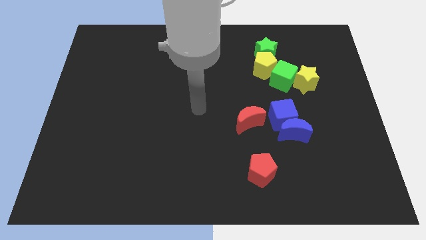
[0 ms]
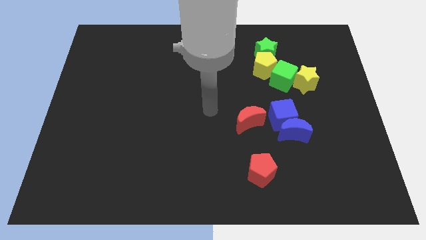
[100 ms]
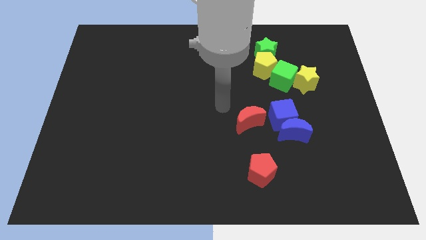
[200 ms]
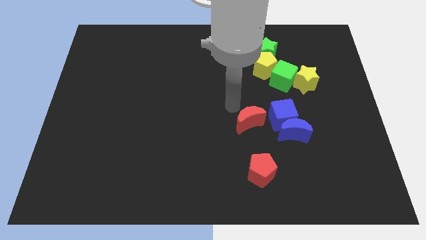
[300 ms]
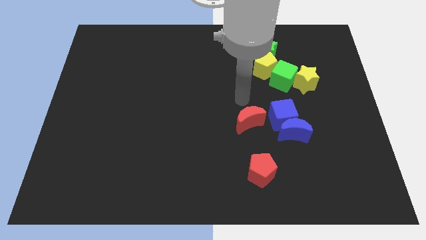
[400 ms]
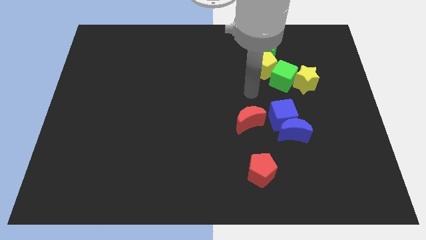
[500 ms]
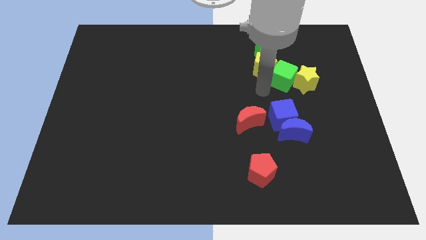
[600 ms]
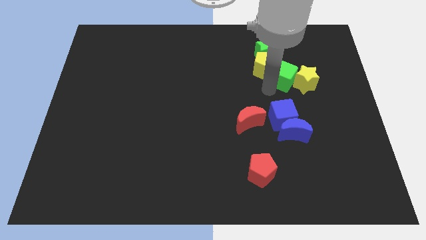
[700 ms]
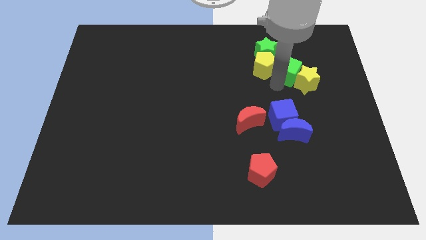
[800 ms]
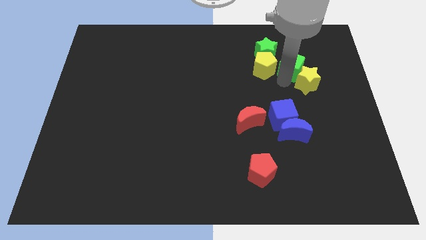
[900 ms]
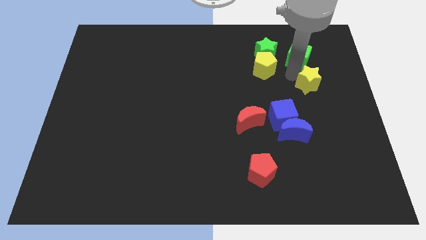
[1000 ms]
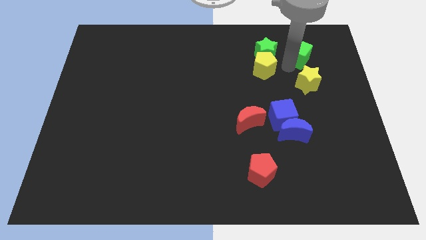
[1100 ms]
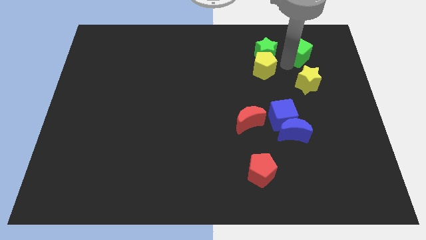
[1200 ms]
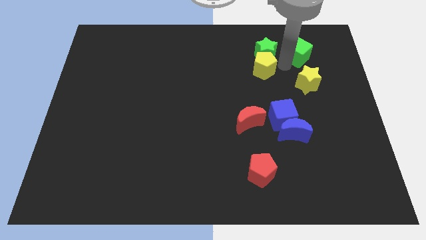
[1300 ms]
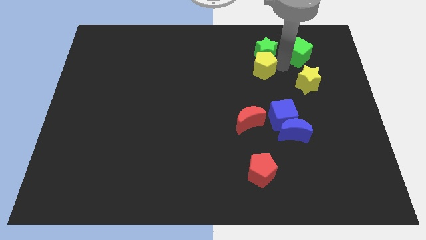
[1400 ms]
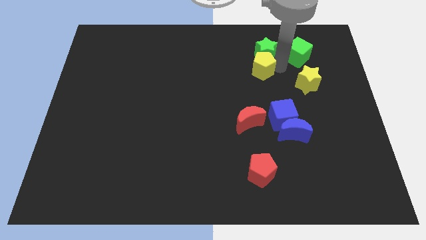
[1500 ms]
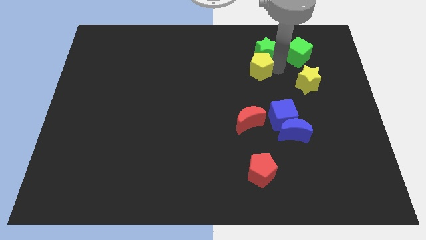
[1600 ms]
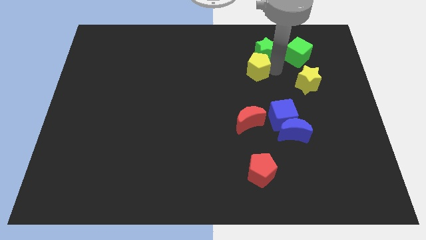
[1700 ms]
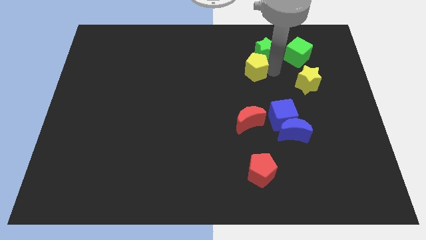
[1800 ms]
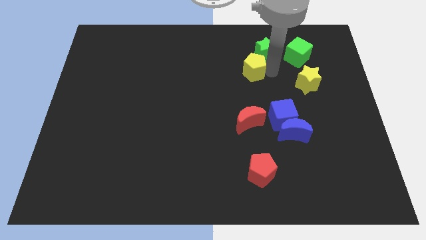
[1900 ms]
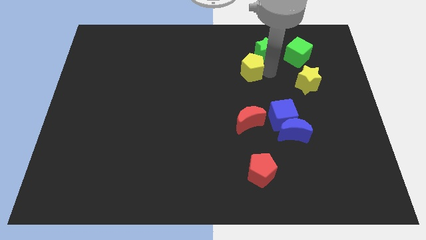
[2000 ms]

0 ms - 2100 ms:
separate the yellow pentagon from the green star and green cube

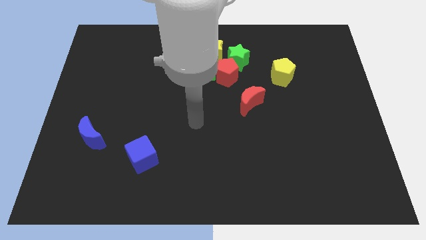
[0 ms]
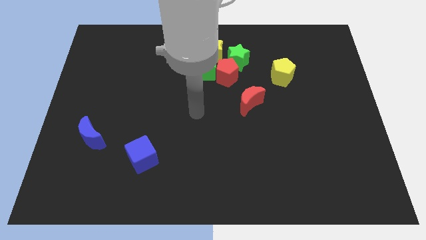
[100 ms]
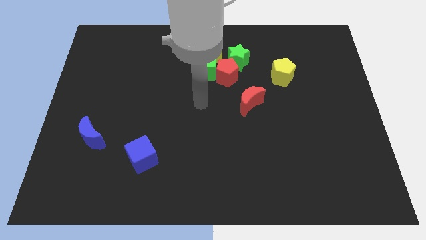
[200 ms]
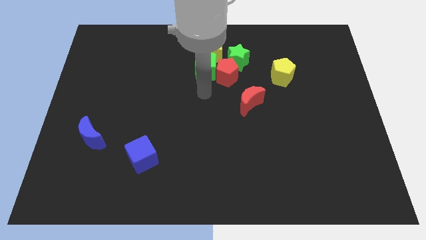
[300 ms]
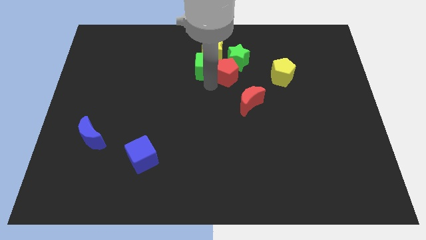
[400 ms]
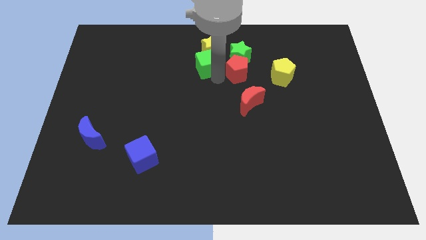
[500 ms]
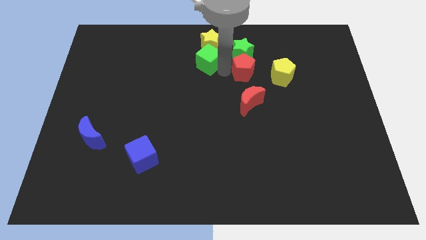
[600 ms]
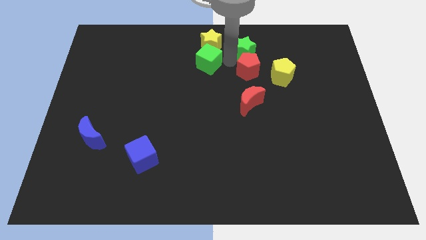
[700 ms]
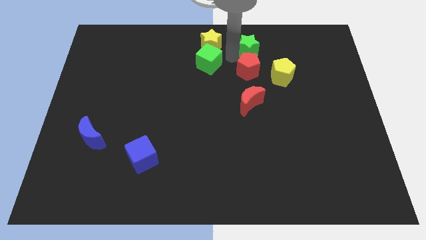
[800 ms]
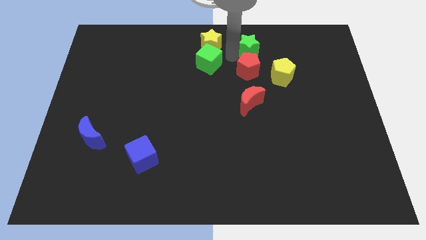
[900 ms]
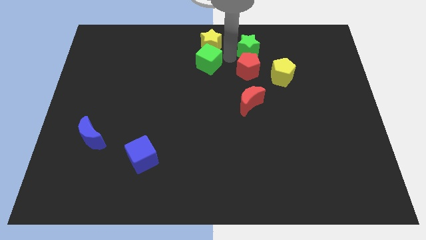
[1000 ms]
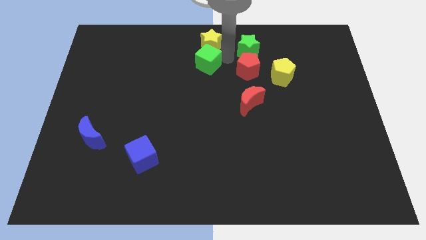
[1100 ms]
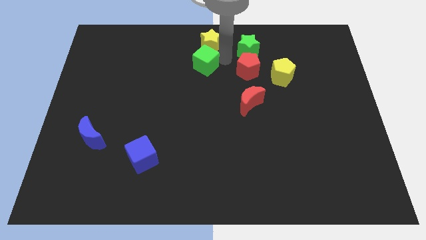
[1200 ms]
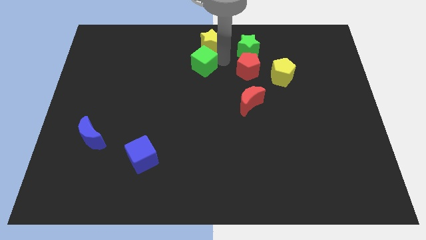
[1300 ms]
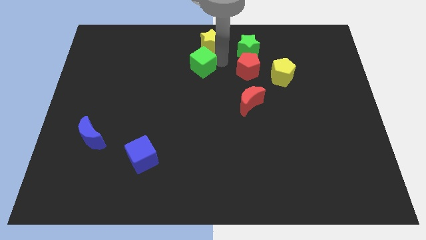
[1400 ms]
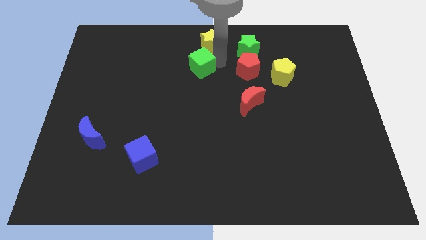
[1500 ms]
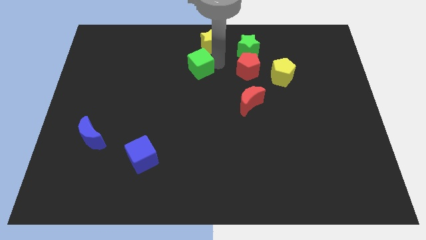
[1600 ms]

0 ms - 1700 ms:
pull the green cube apart from the red pentagon, yellow star, and green star

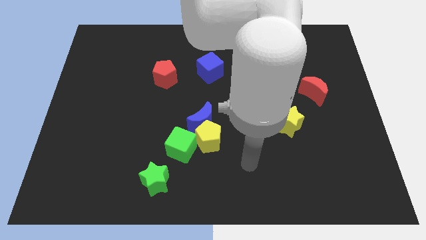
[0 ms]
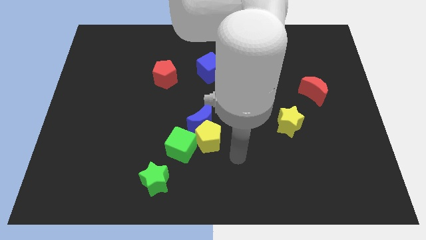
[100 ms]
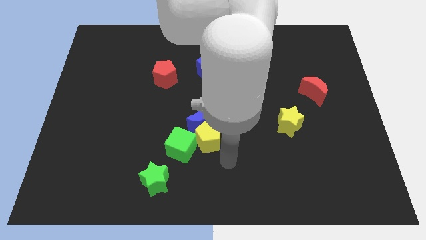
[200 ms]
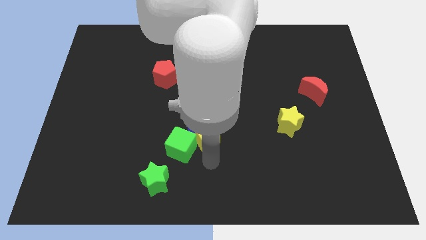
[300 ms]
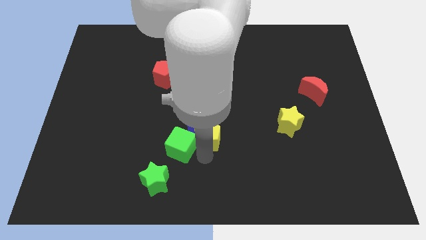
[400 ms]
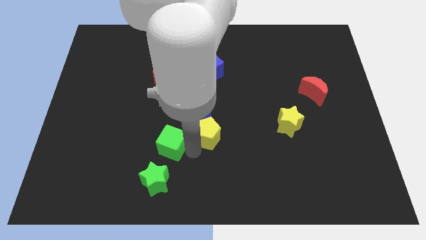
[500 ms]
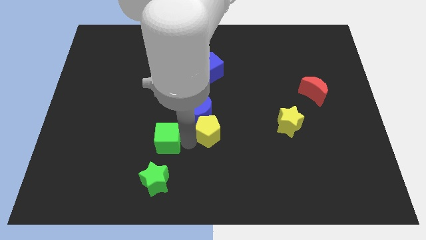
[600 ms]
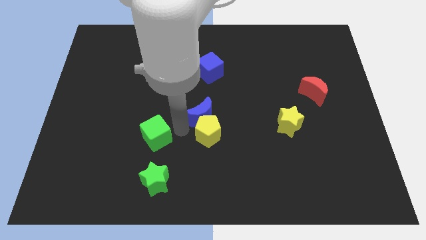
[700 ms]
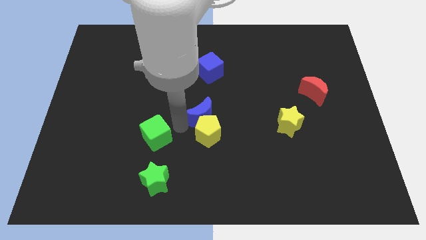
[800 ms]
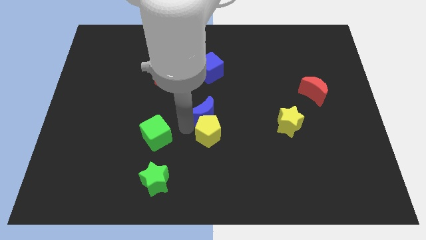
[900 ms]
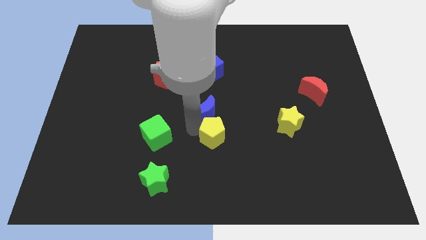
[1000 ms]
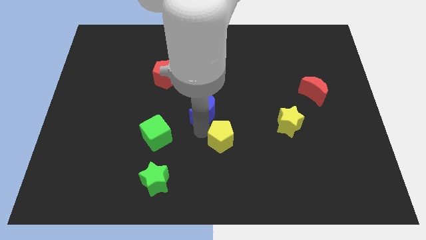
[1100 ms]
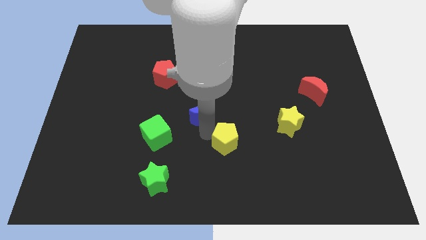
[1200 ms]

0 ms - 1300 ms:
move the yellow pentagon away from the blue moon and green cube

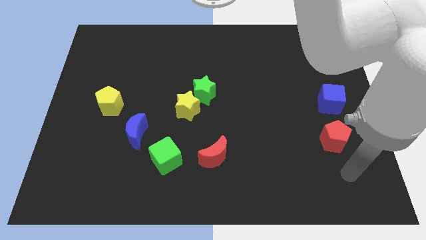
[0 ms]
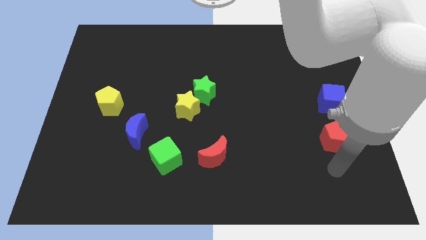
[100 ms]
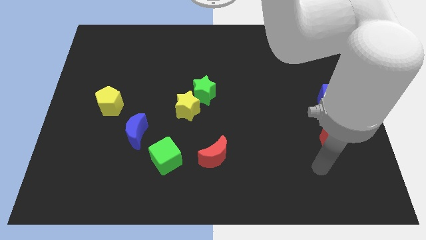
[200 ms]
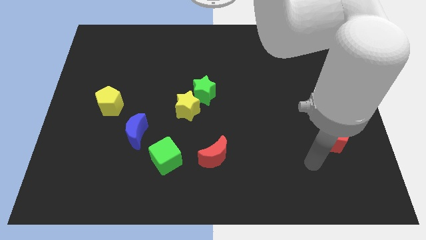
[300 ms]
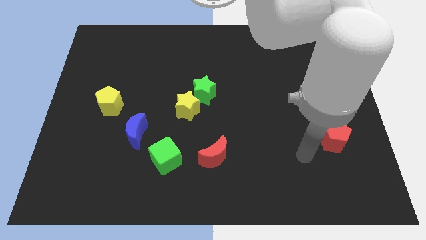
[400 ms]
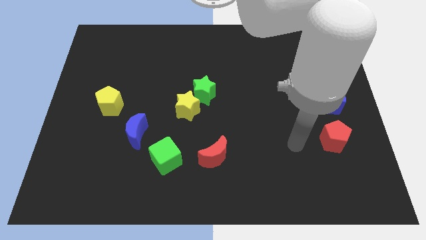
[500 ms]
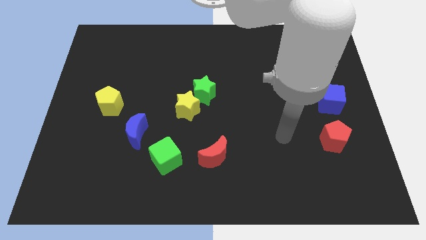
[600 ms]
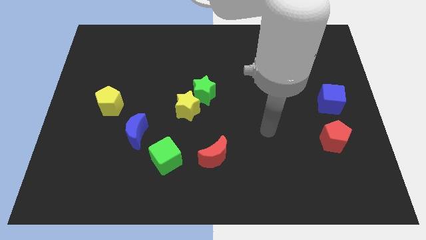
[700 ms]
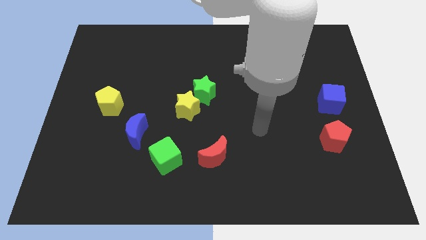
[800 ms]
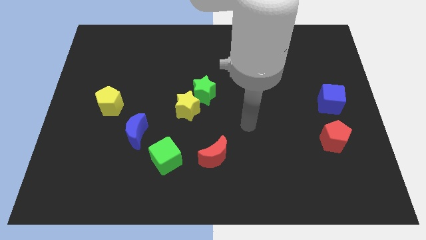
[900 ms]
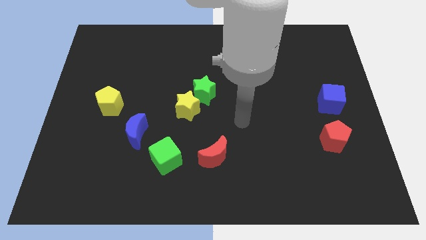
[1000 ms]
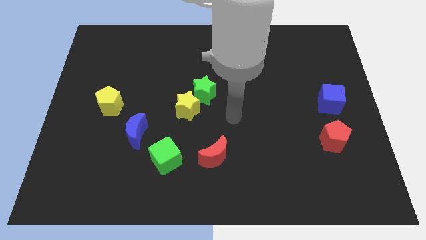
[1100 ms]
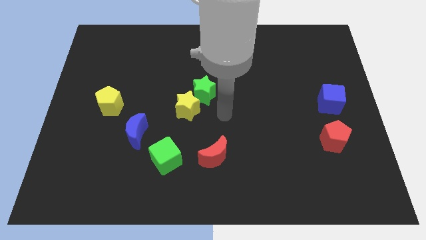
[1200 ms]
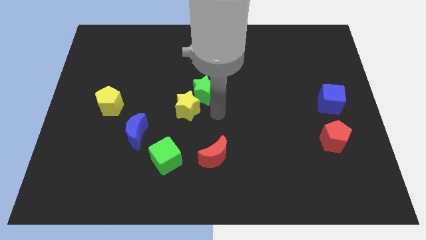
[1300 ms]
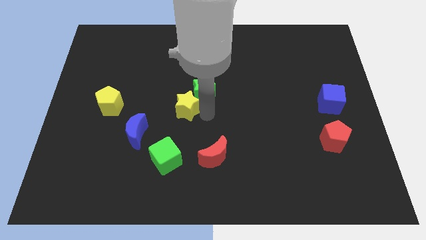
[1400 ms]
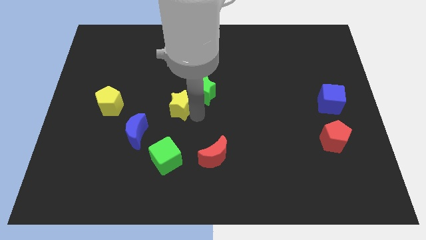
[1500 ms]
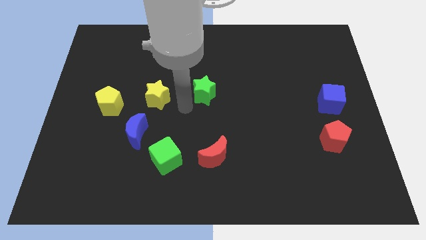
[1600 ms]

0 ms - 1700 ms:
separate the green star from the yellow star

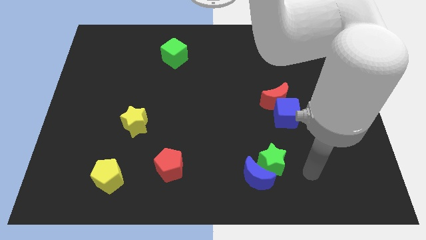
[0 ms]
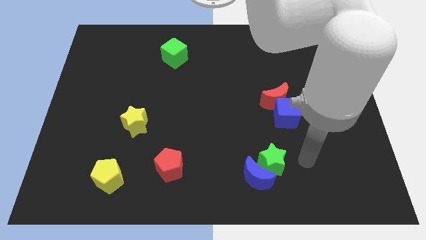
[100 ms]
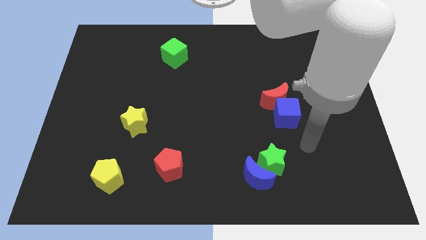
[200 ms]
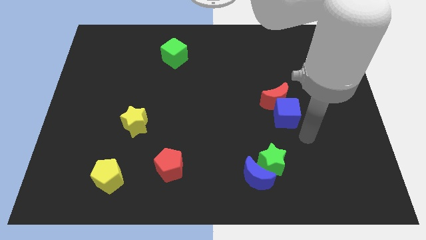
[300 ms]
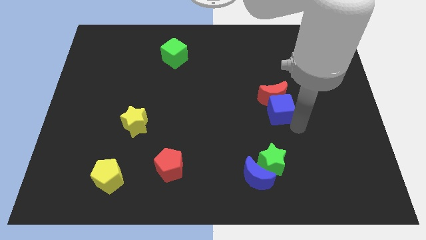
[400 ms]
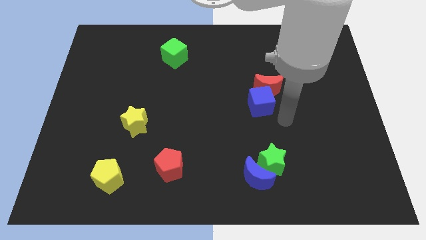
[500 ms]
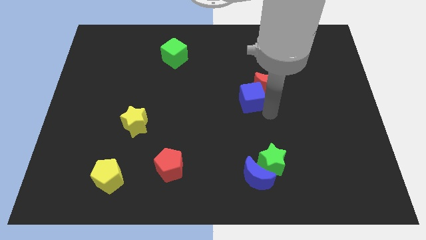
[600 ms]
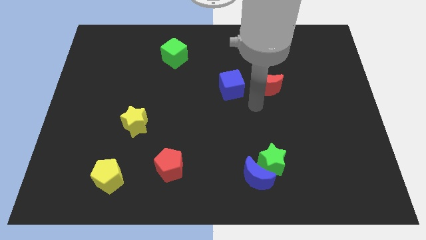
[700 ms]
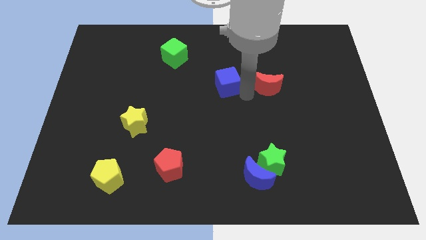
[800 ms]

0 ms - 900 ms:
separate the red moon from the blue cube

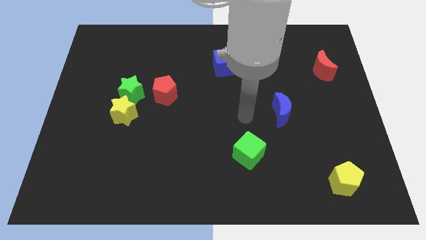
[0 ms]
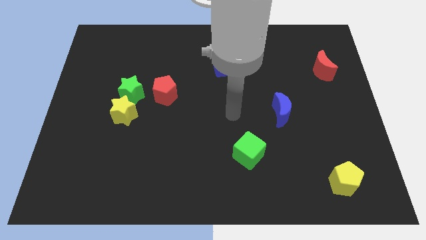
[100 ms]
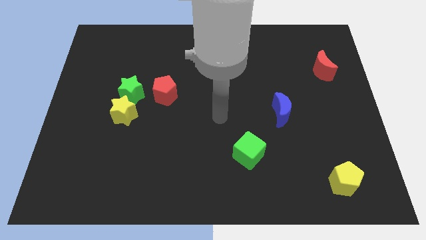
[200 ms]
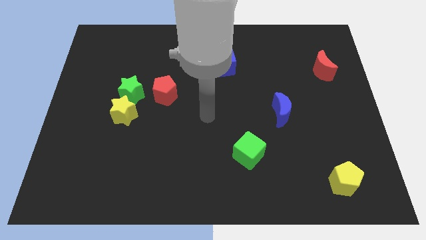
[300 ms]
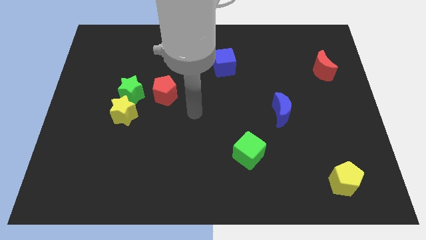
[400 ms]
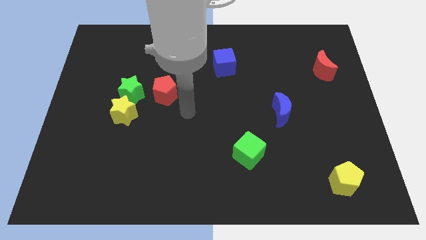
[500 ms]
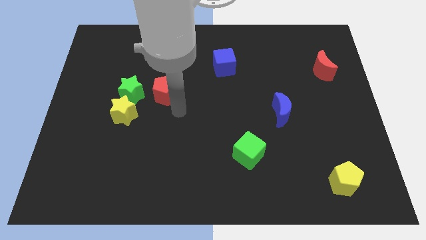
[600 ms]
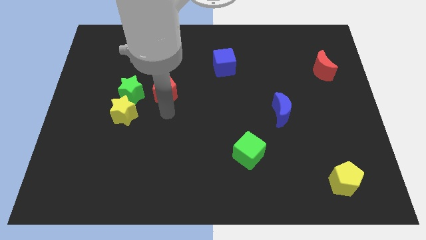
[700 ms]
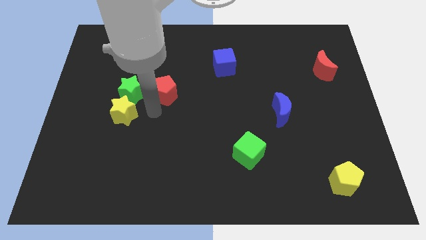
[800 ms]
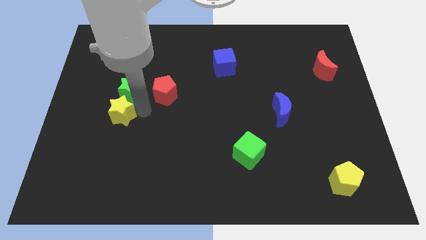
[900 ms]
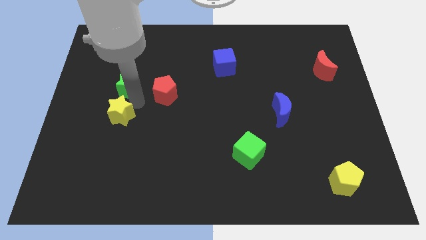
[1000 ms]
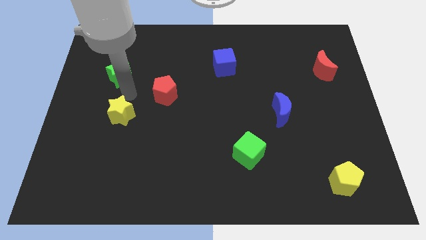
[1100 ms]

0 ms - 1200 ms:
pull the yellow star apart from the green star

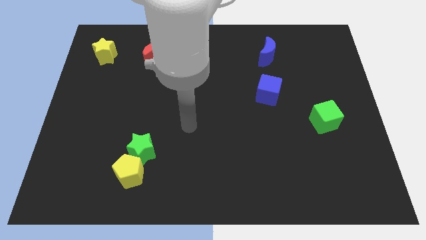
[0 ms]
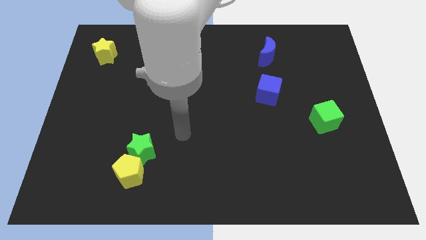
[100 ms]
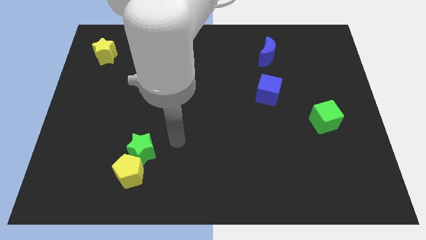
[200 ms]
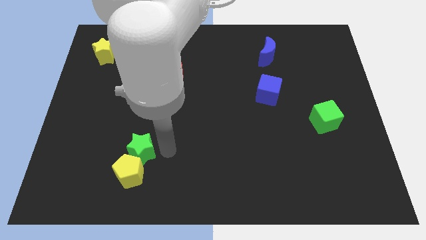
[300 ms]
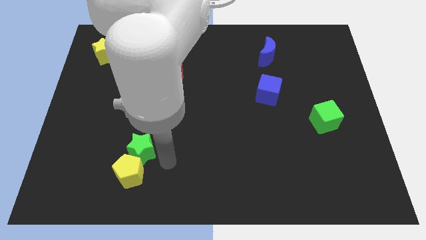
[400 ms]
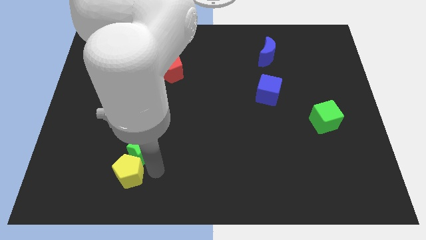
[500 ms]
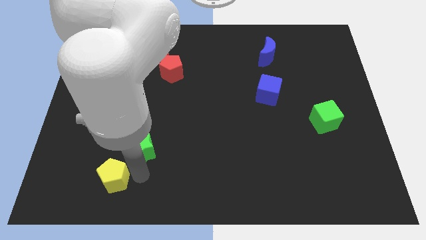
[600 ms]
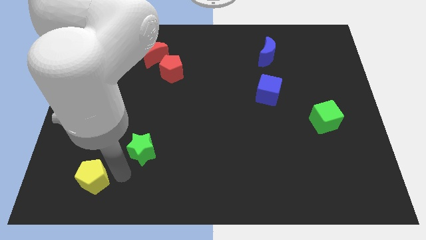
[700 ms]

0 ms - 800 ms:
move the green star away from the yellow pentagon
